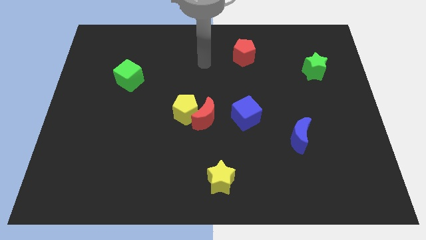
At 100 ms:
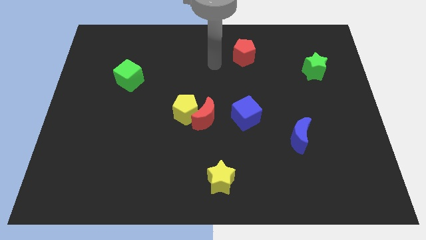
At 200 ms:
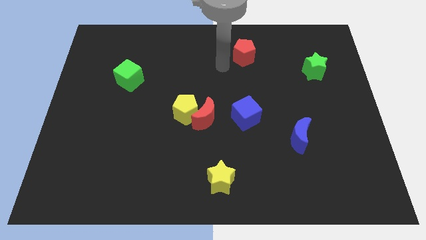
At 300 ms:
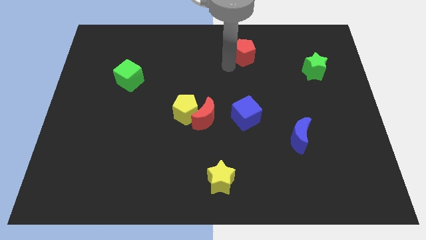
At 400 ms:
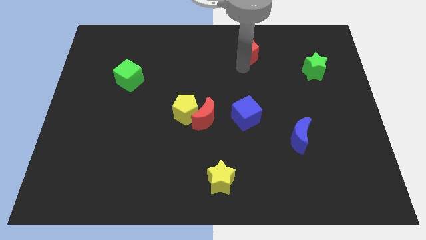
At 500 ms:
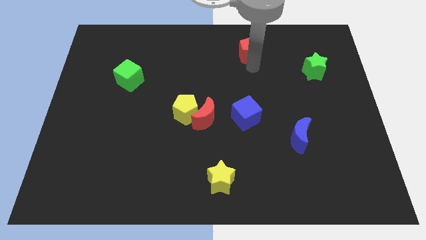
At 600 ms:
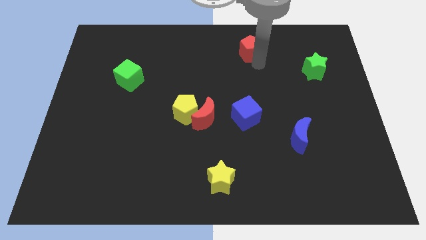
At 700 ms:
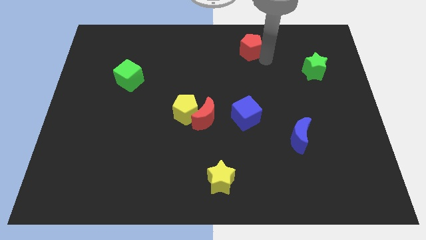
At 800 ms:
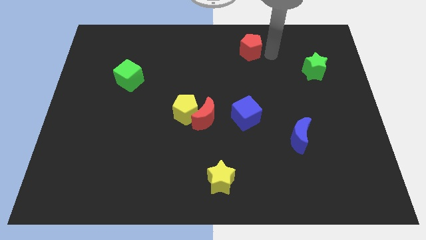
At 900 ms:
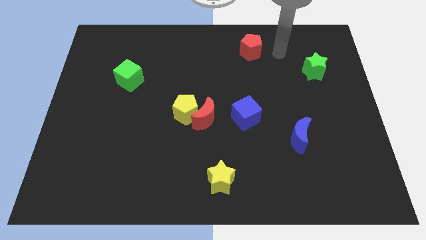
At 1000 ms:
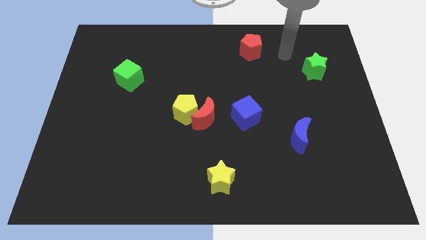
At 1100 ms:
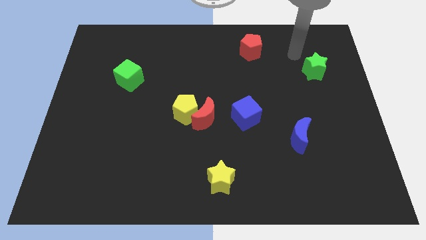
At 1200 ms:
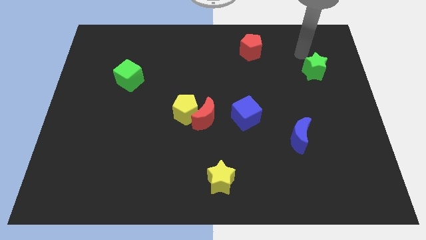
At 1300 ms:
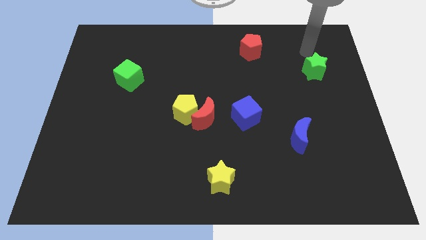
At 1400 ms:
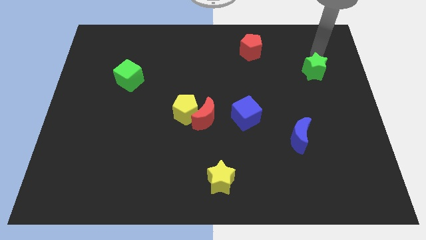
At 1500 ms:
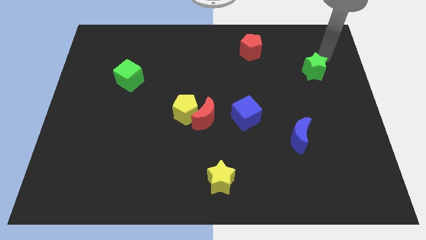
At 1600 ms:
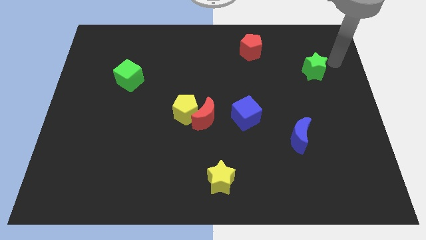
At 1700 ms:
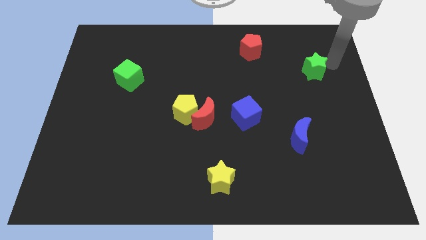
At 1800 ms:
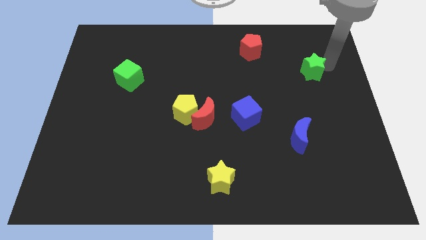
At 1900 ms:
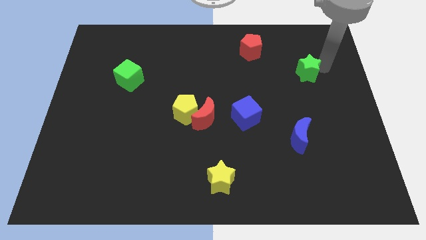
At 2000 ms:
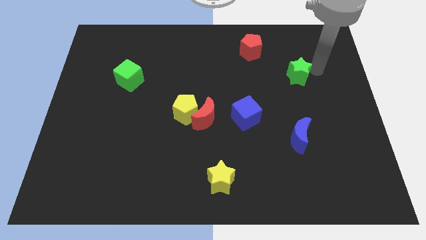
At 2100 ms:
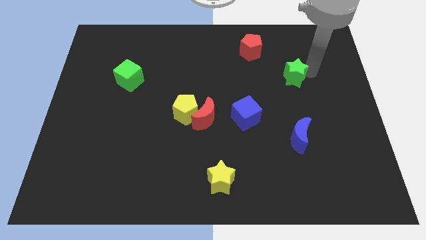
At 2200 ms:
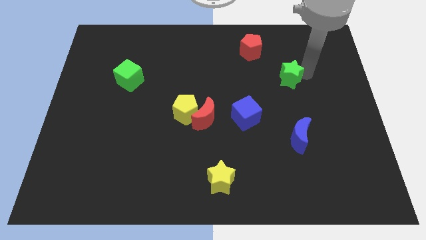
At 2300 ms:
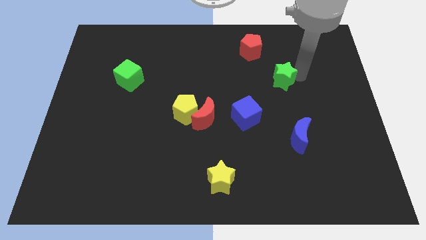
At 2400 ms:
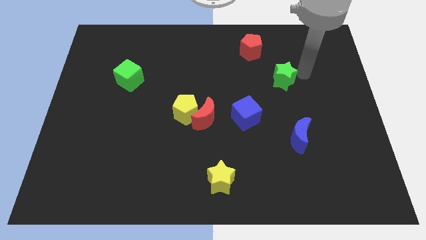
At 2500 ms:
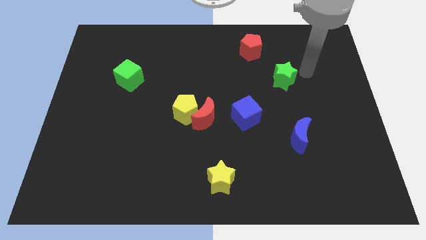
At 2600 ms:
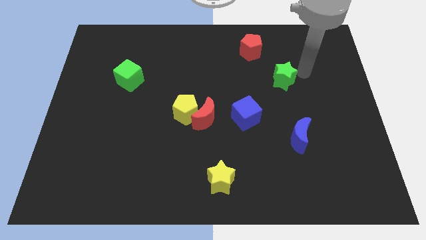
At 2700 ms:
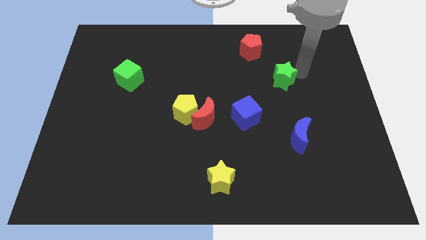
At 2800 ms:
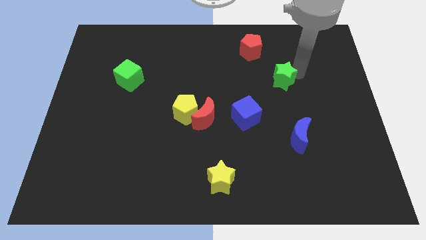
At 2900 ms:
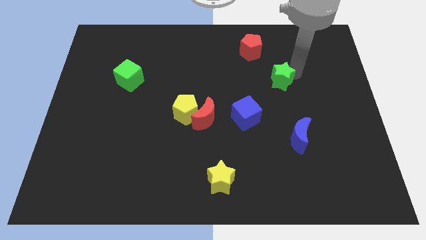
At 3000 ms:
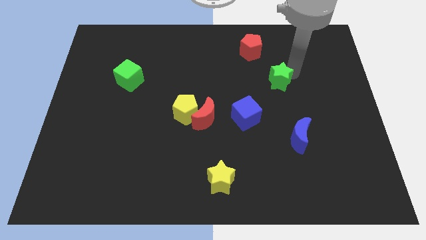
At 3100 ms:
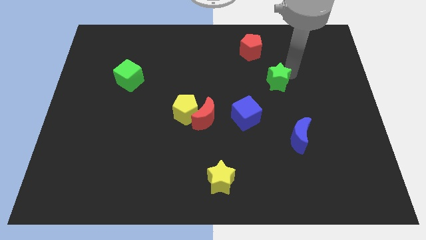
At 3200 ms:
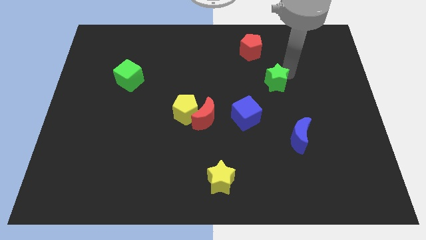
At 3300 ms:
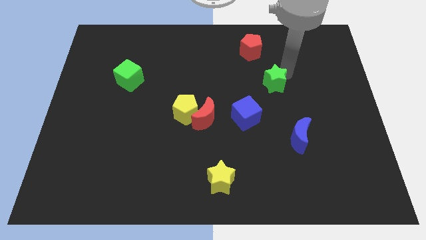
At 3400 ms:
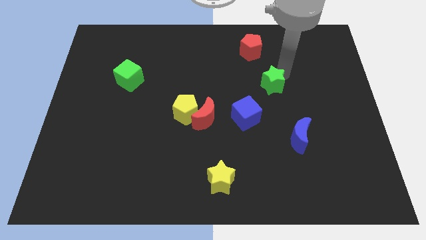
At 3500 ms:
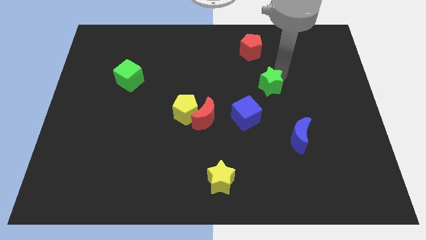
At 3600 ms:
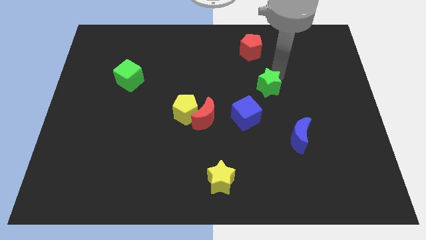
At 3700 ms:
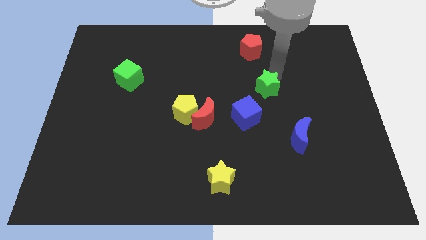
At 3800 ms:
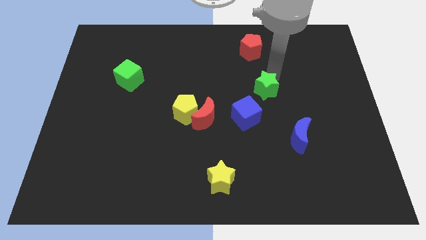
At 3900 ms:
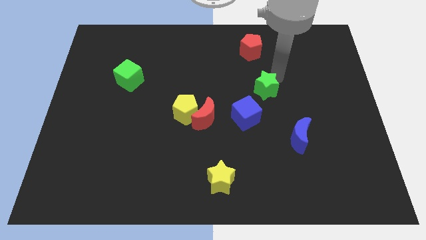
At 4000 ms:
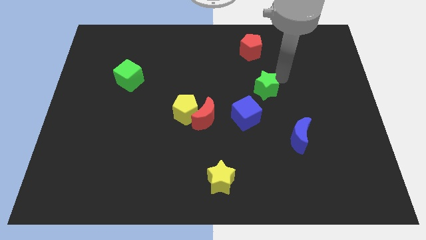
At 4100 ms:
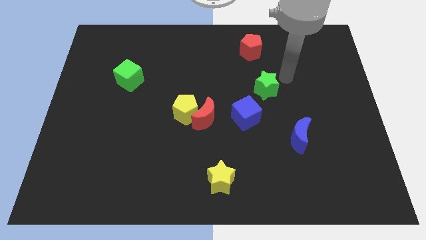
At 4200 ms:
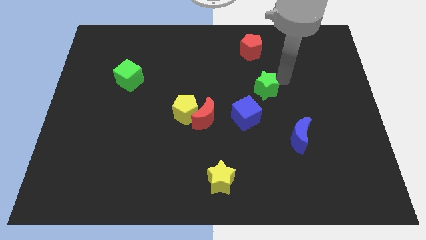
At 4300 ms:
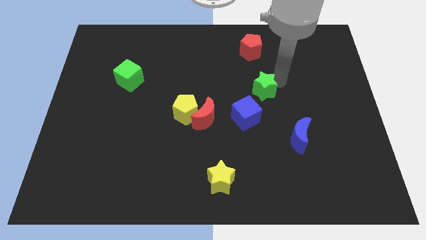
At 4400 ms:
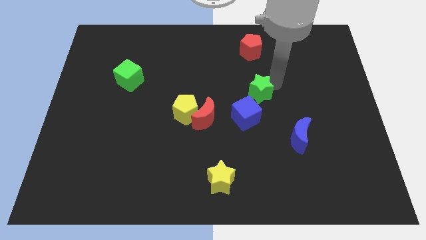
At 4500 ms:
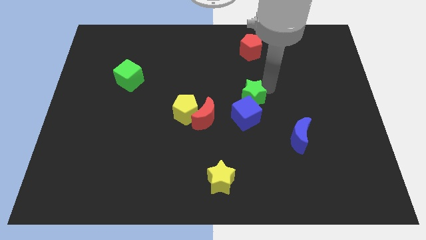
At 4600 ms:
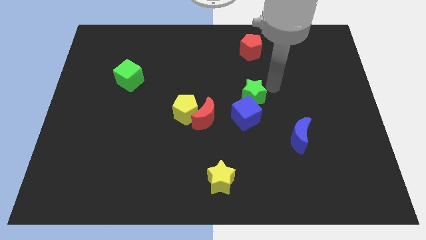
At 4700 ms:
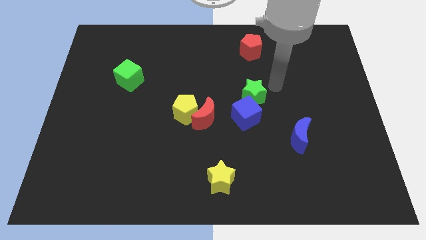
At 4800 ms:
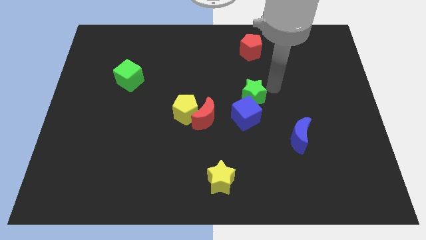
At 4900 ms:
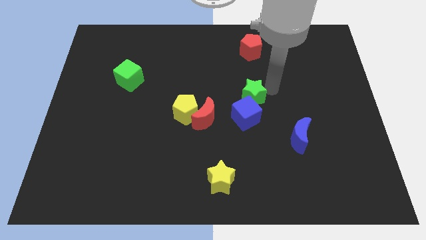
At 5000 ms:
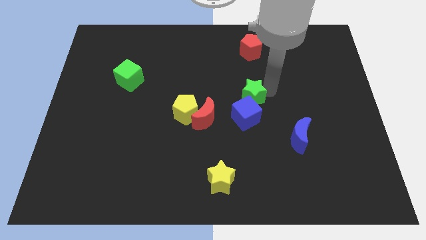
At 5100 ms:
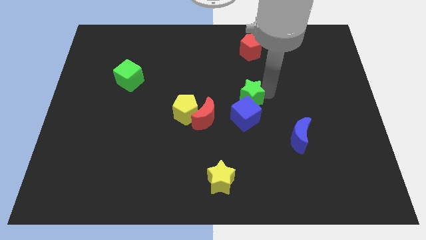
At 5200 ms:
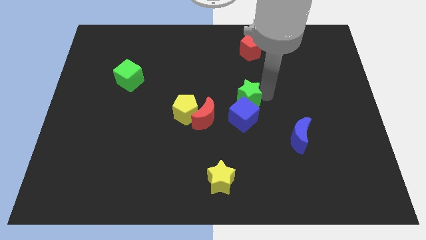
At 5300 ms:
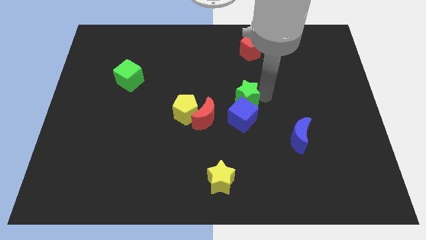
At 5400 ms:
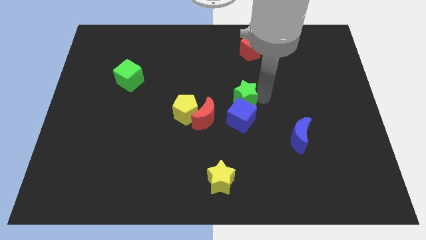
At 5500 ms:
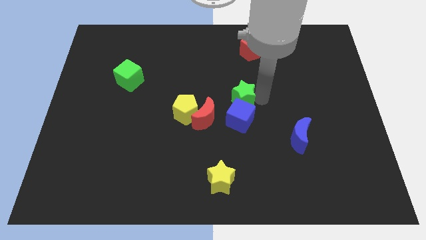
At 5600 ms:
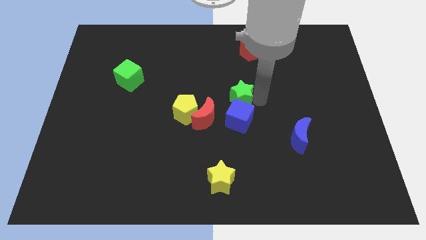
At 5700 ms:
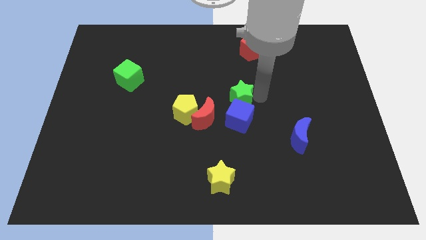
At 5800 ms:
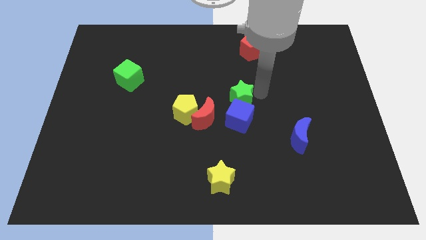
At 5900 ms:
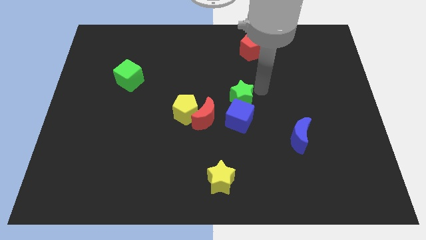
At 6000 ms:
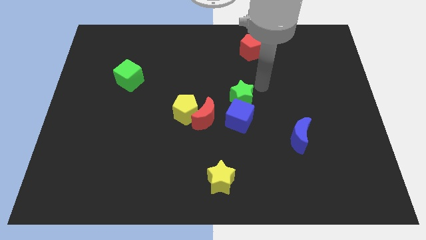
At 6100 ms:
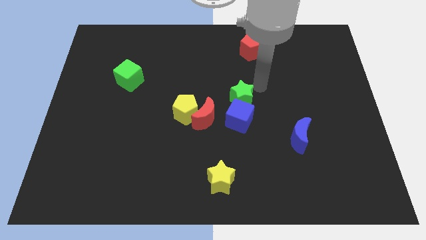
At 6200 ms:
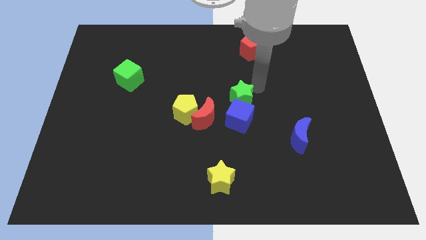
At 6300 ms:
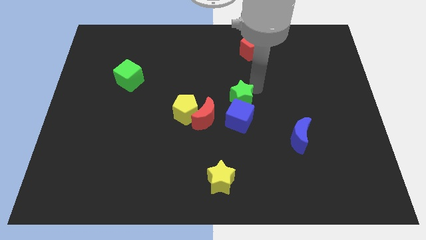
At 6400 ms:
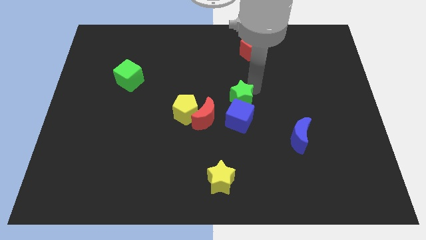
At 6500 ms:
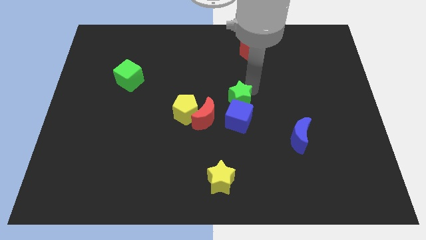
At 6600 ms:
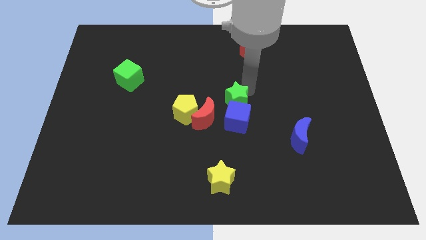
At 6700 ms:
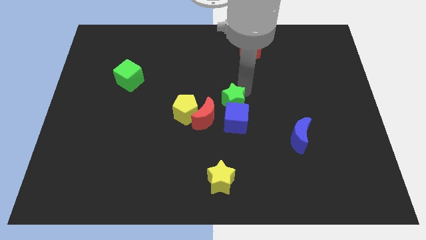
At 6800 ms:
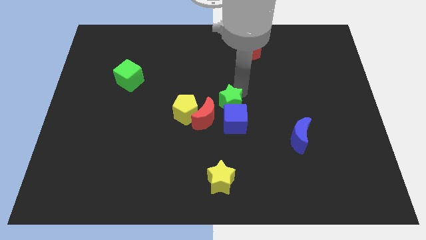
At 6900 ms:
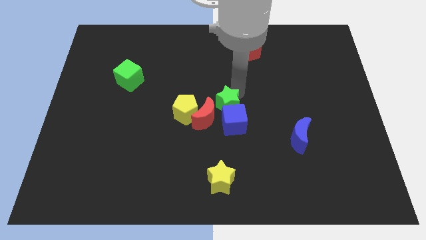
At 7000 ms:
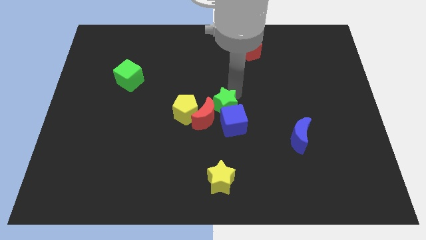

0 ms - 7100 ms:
push the green star next to the red moon

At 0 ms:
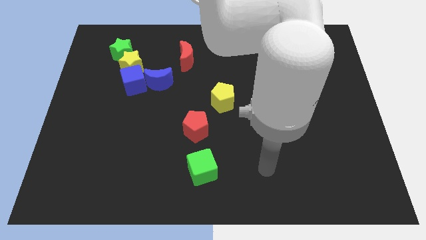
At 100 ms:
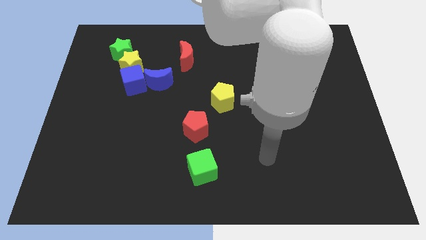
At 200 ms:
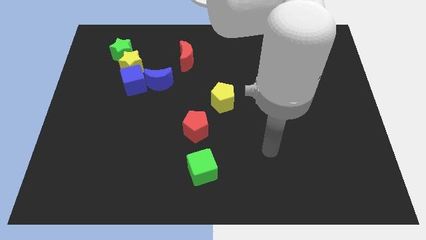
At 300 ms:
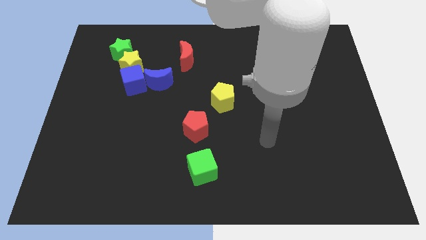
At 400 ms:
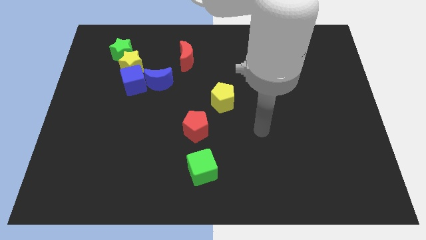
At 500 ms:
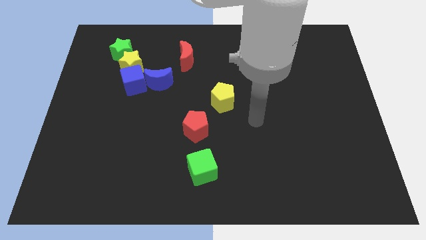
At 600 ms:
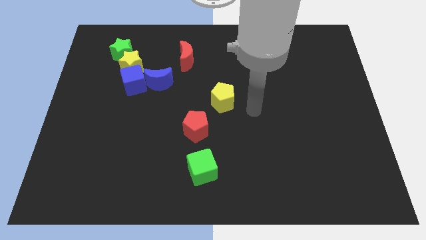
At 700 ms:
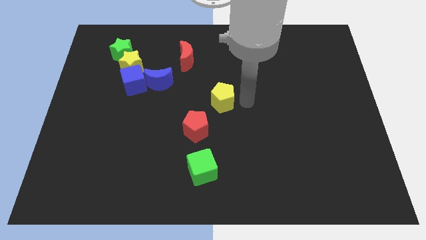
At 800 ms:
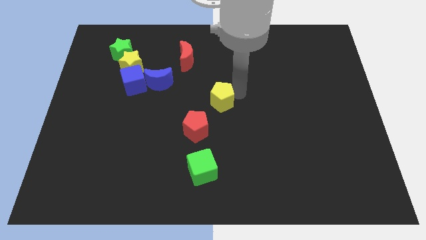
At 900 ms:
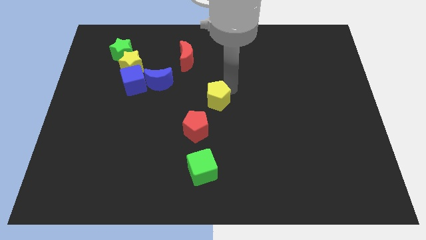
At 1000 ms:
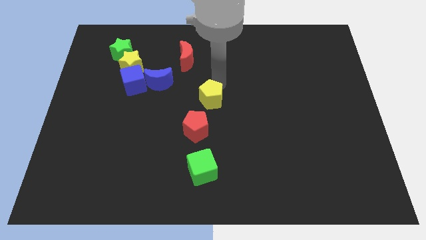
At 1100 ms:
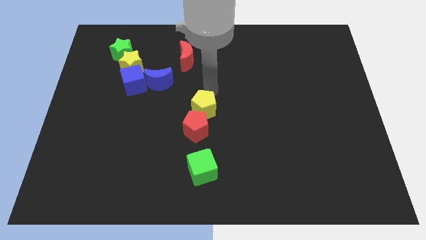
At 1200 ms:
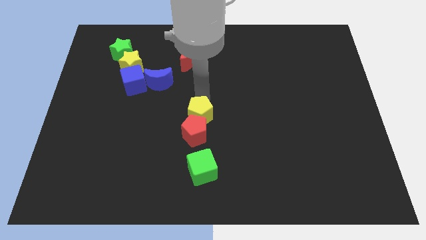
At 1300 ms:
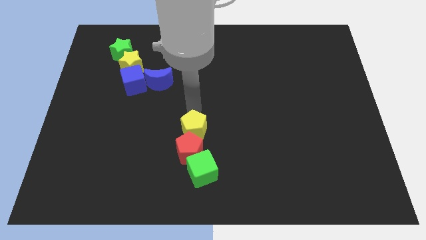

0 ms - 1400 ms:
move the red pentagon towards the green cube

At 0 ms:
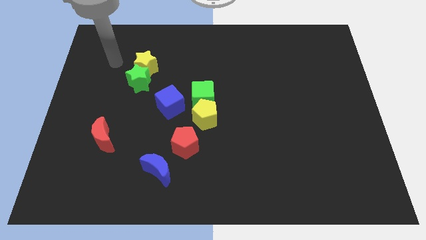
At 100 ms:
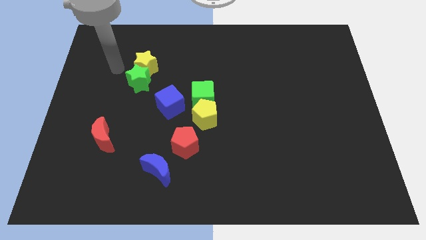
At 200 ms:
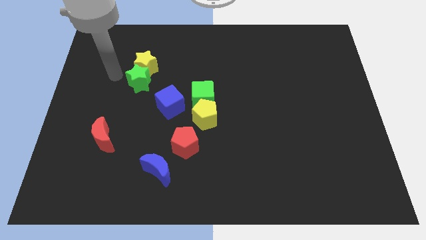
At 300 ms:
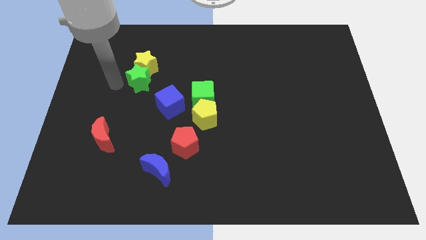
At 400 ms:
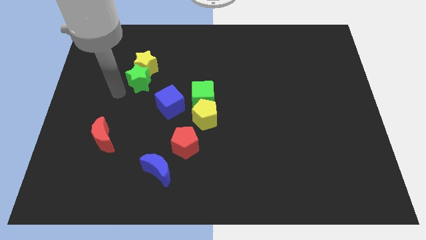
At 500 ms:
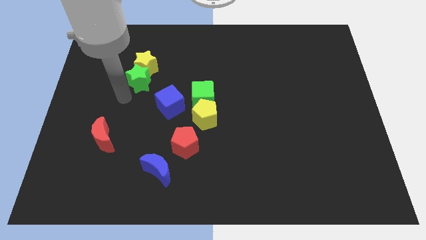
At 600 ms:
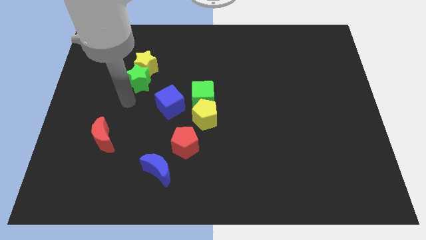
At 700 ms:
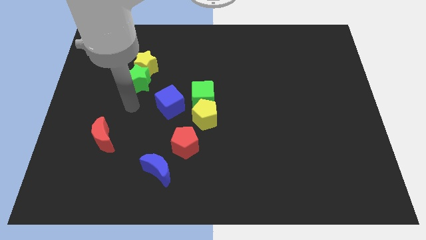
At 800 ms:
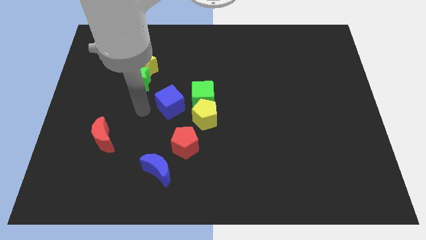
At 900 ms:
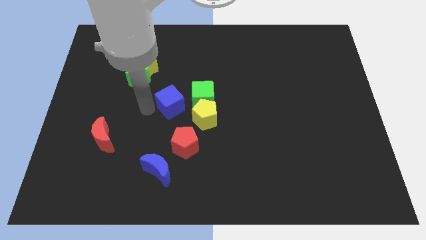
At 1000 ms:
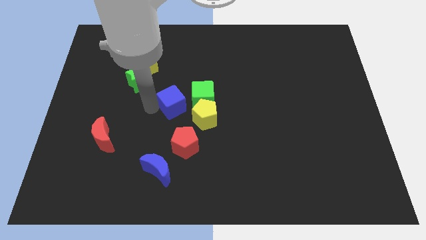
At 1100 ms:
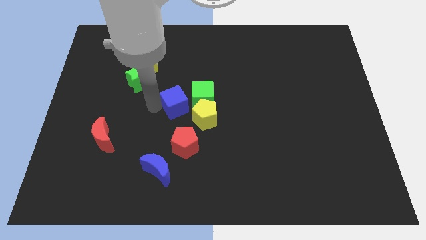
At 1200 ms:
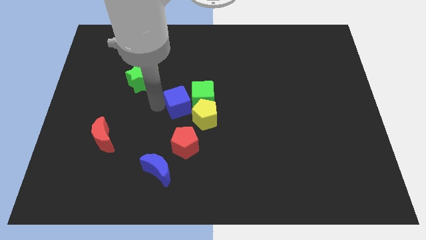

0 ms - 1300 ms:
push the blue cube towards the green cube
